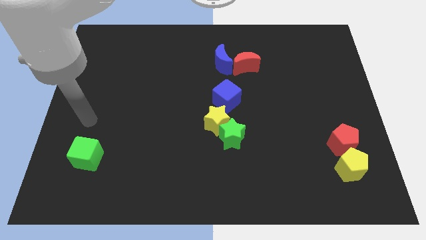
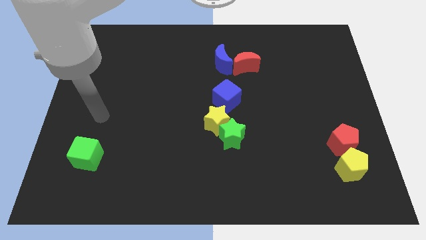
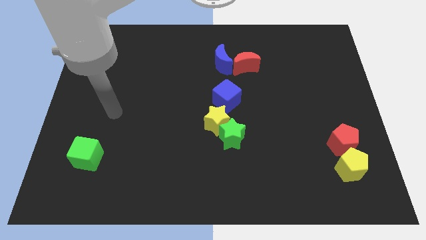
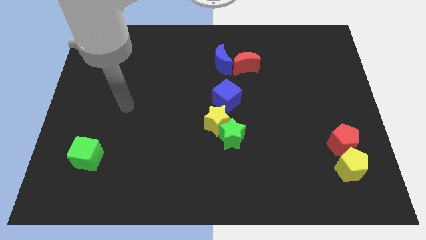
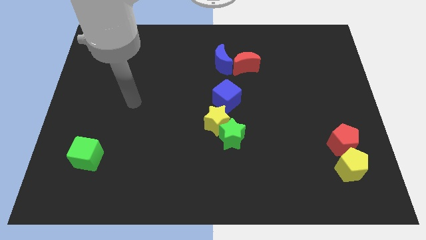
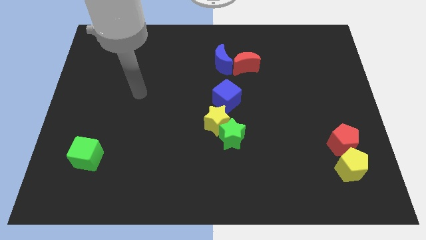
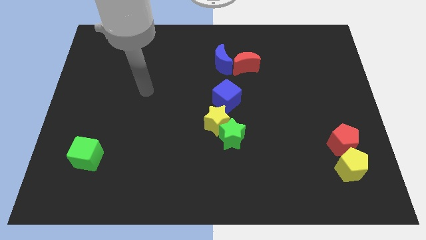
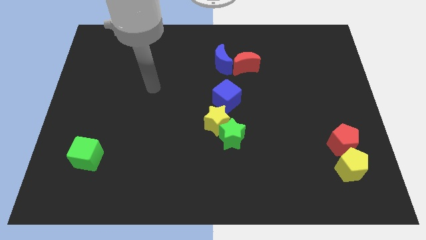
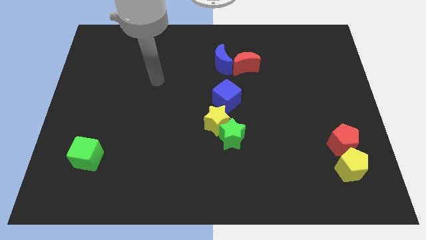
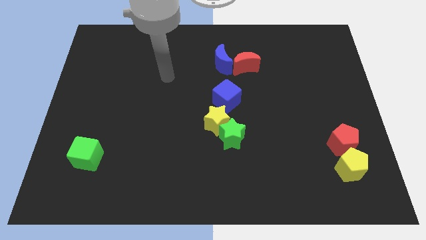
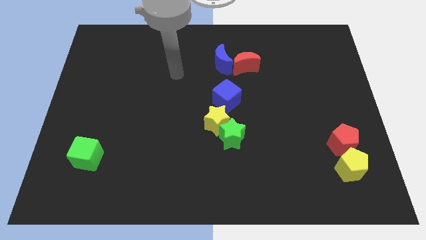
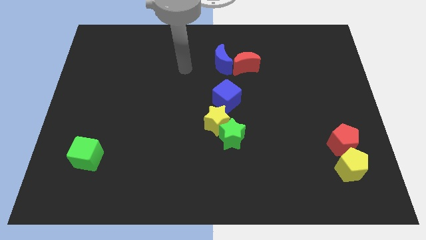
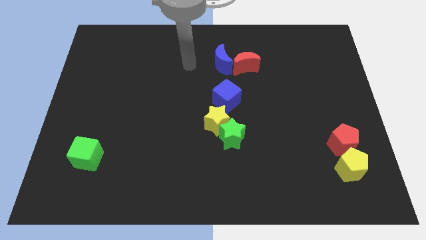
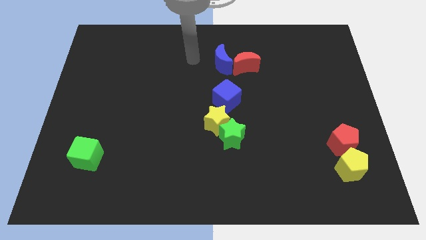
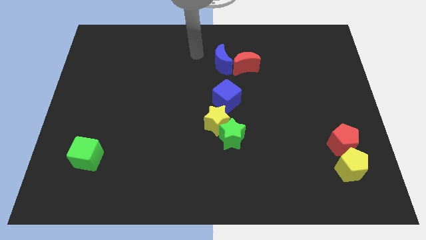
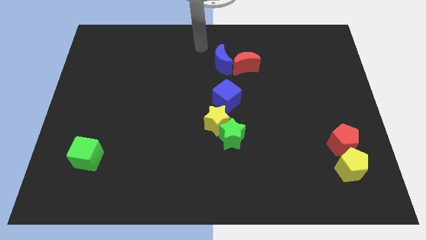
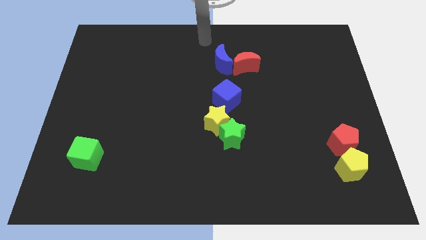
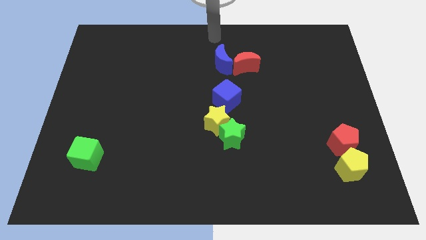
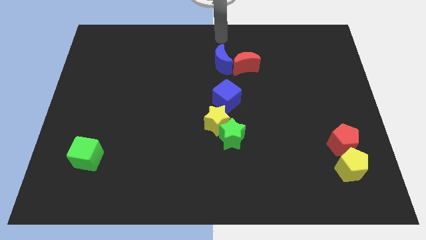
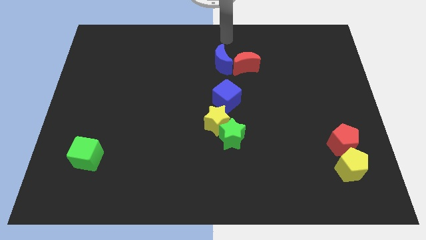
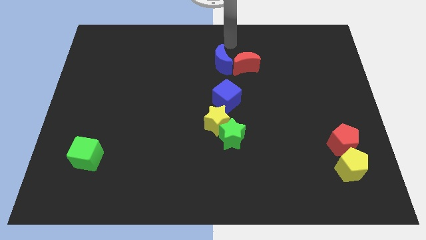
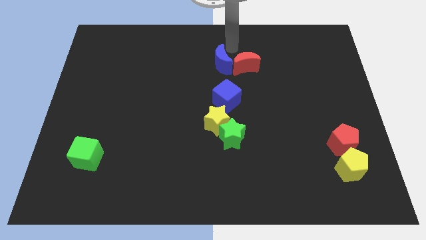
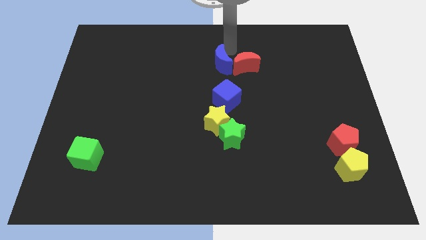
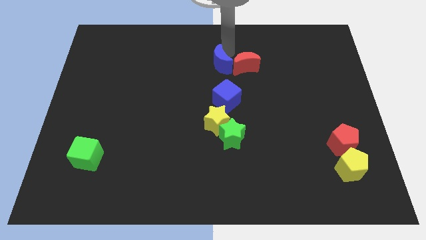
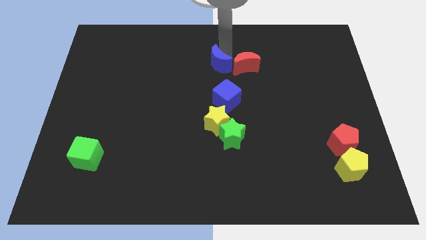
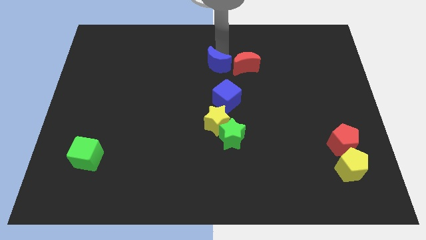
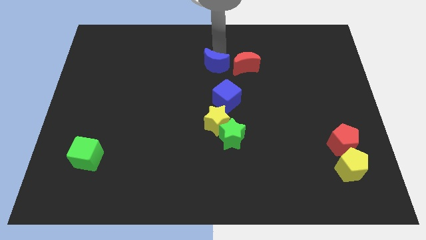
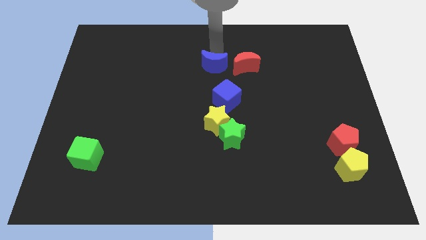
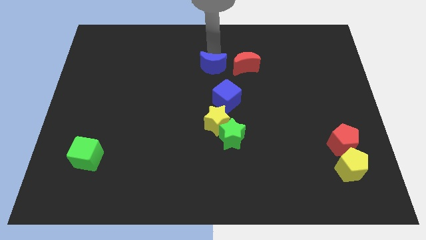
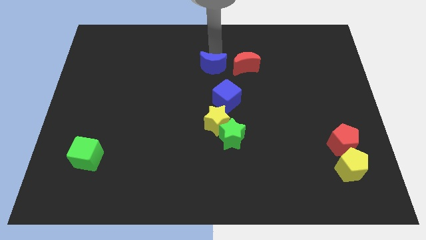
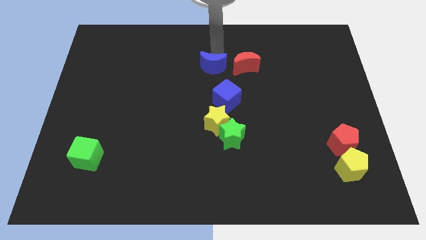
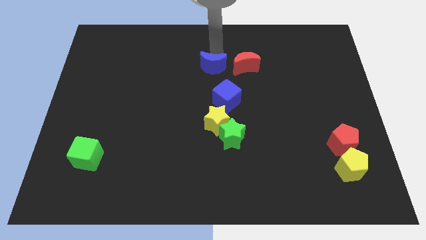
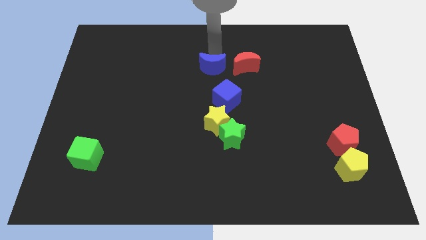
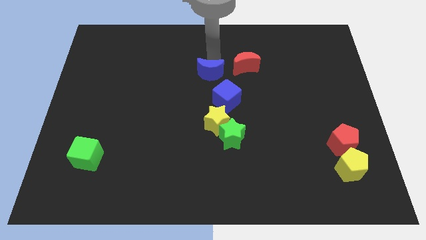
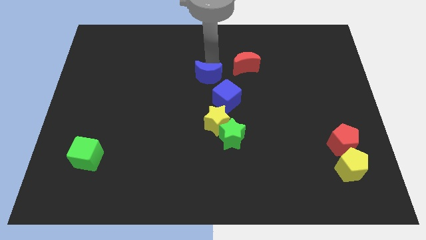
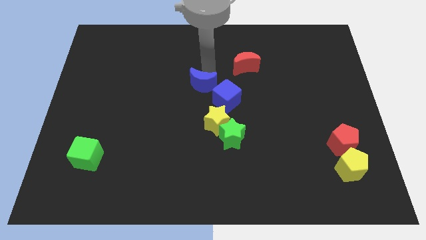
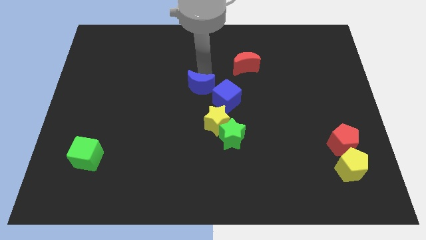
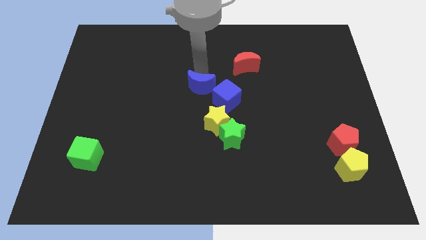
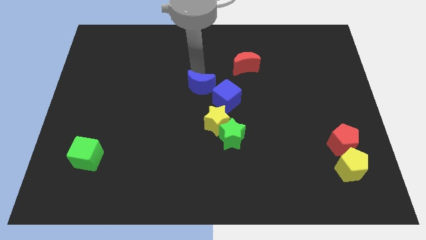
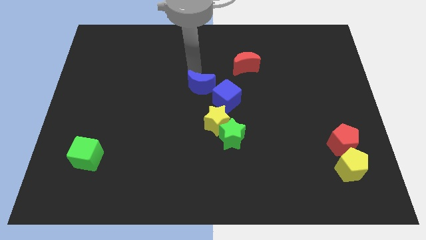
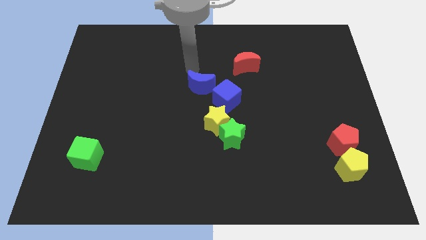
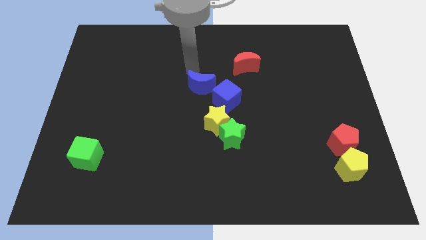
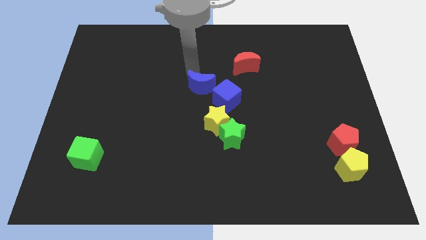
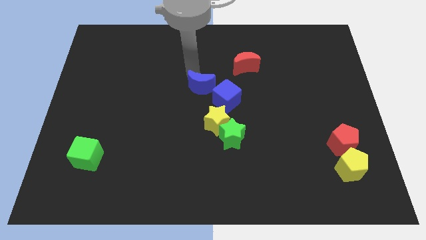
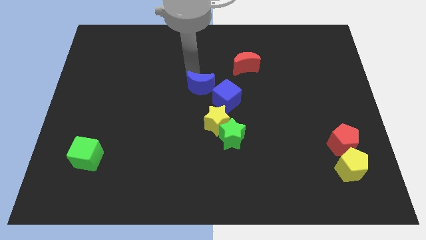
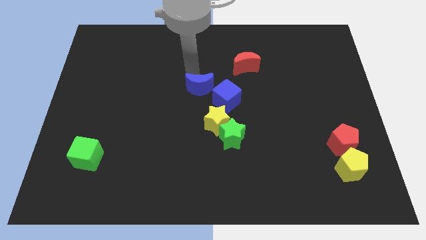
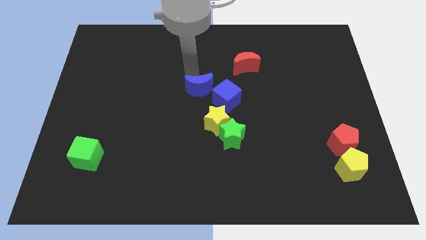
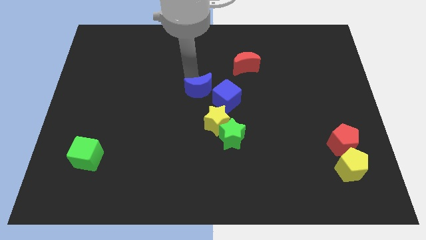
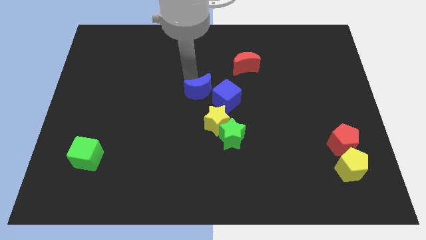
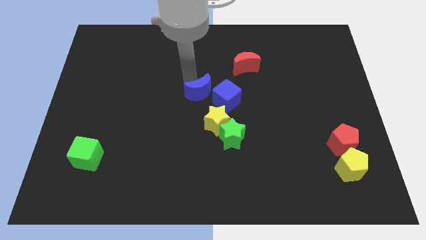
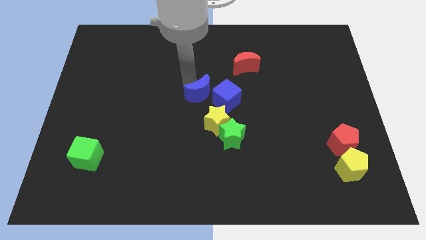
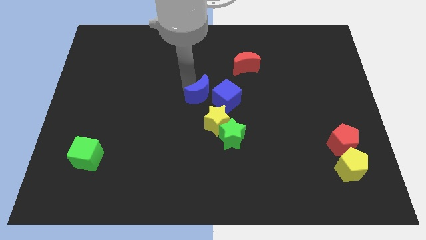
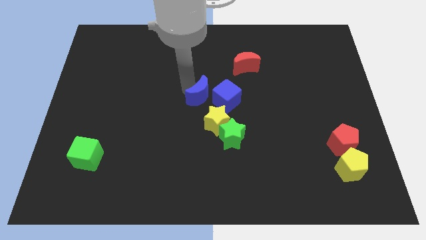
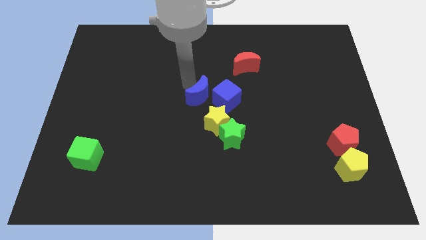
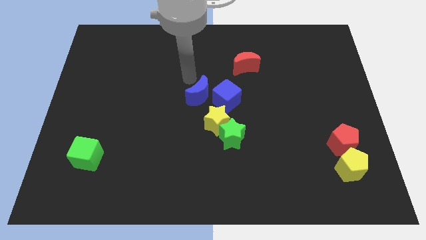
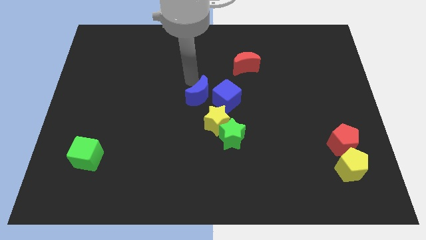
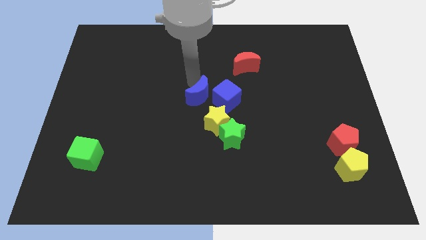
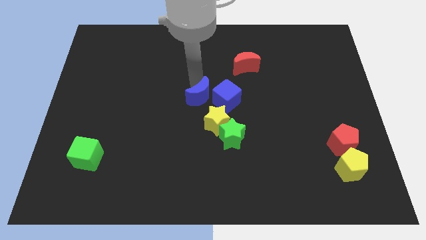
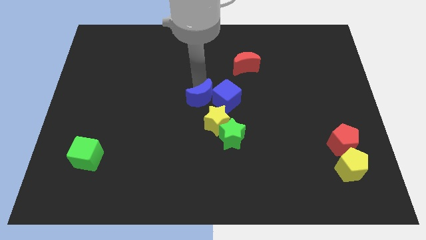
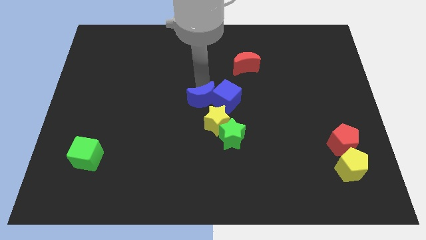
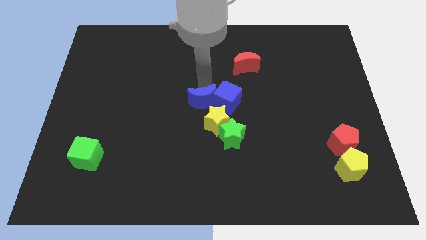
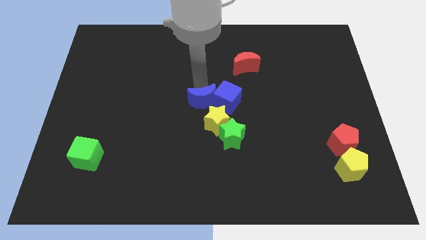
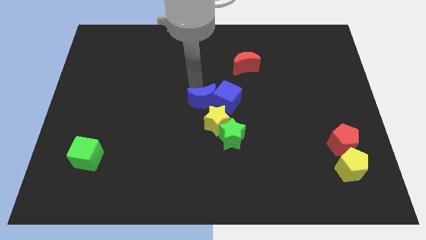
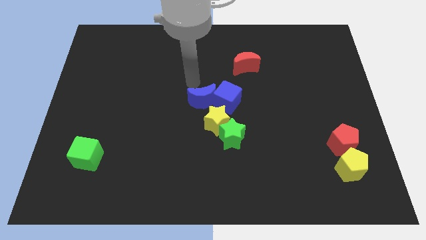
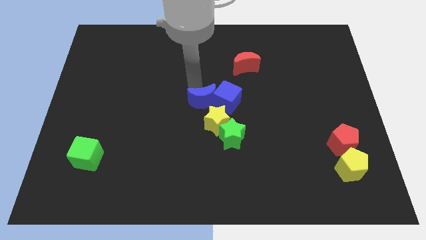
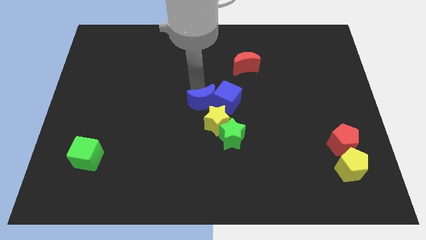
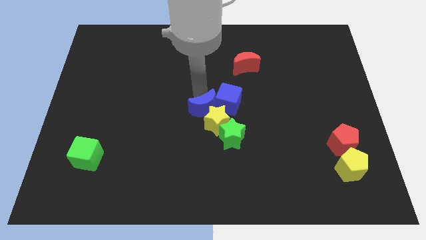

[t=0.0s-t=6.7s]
push the blue moon to the yellow star
